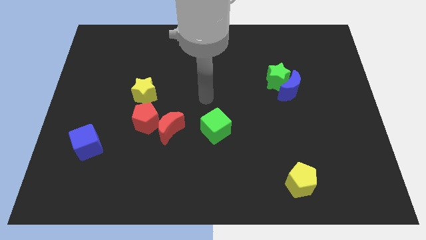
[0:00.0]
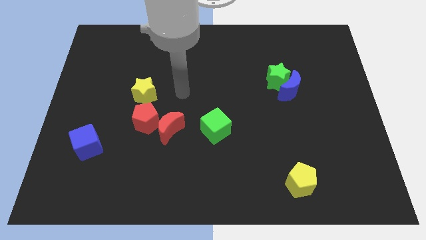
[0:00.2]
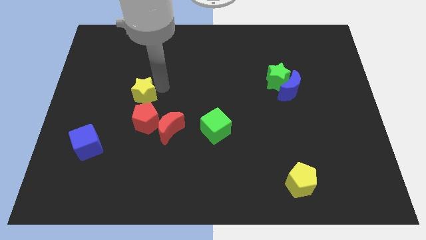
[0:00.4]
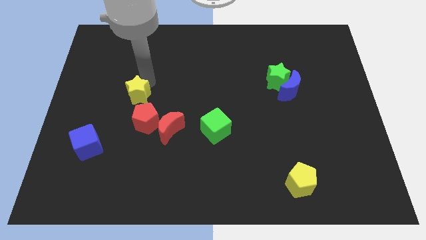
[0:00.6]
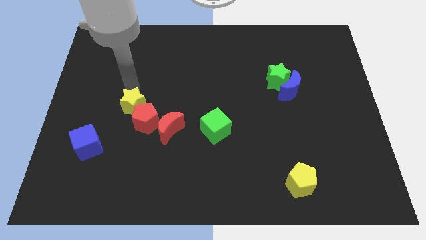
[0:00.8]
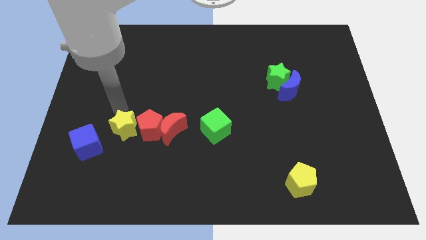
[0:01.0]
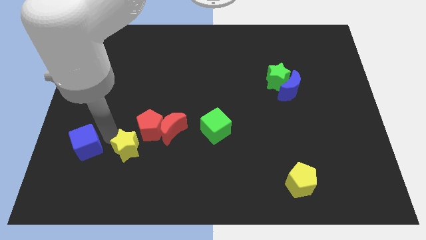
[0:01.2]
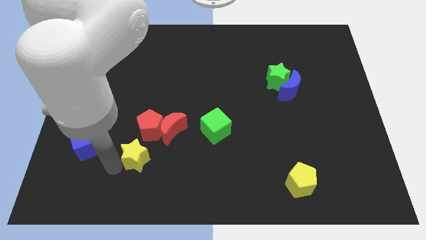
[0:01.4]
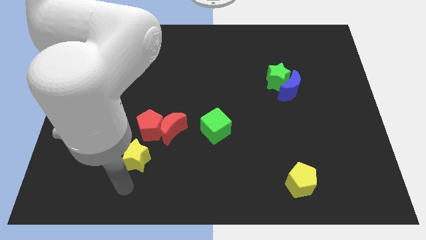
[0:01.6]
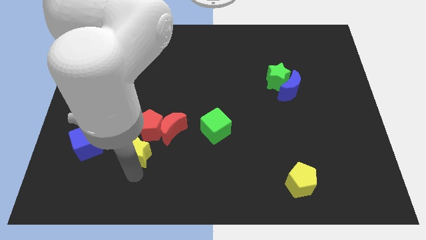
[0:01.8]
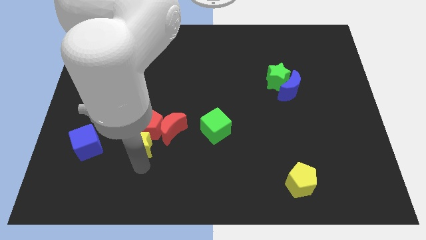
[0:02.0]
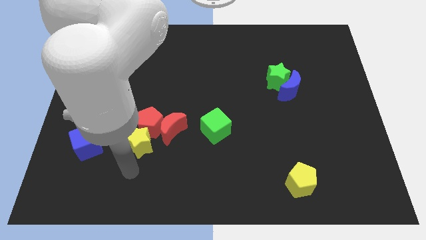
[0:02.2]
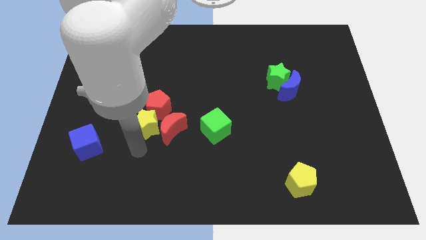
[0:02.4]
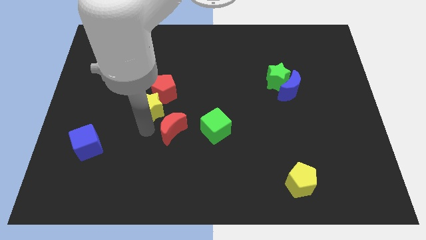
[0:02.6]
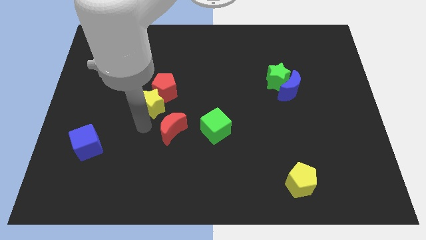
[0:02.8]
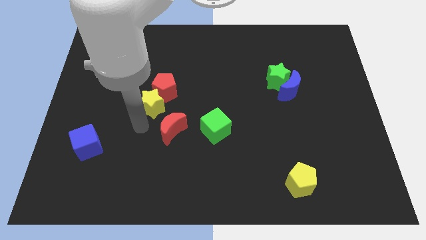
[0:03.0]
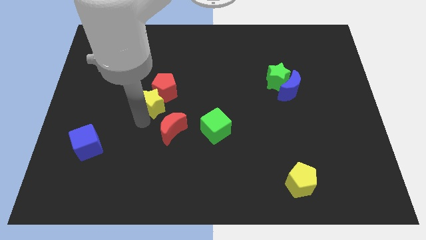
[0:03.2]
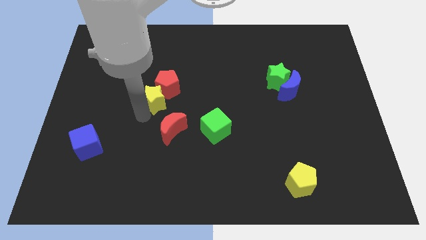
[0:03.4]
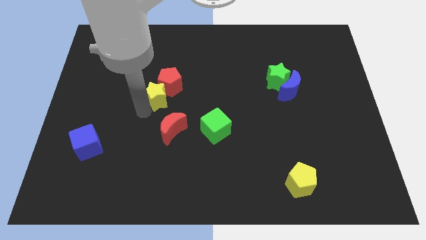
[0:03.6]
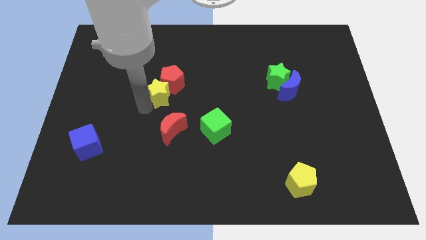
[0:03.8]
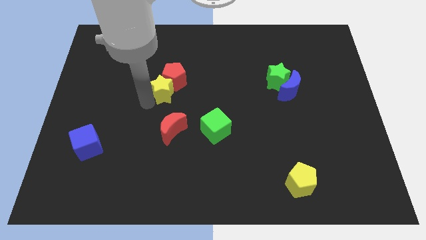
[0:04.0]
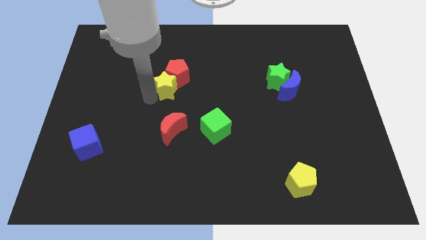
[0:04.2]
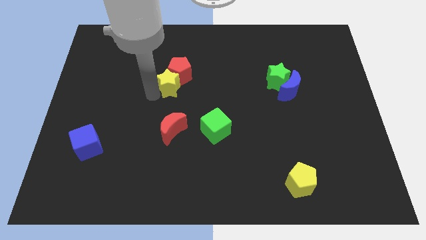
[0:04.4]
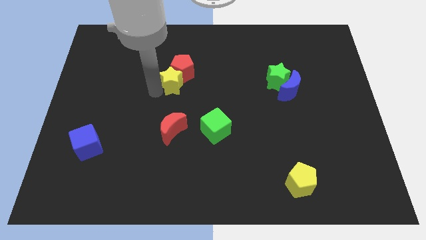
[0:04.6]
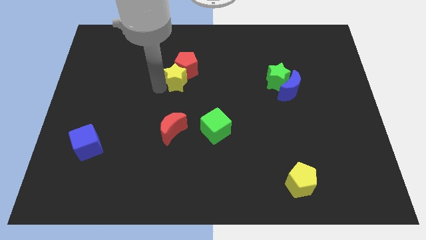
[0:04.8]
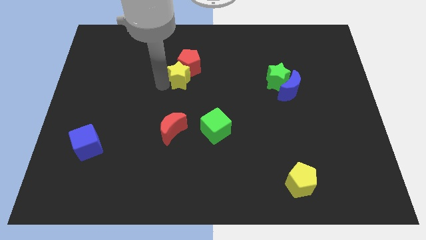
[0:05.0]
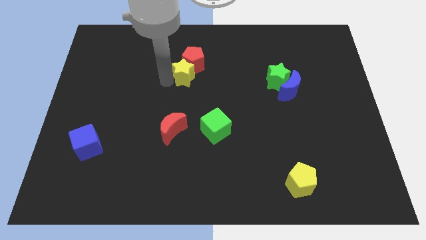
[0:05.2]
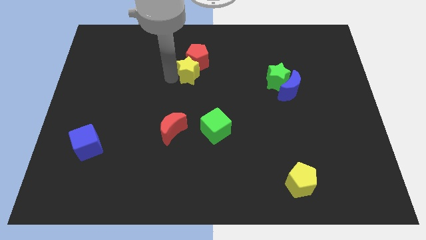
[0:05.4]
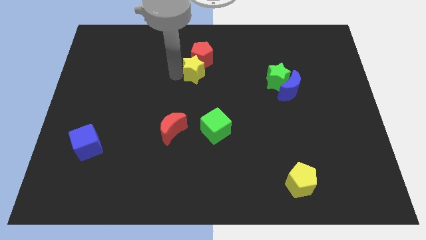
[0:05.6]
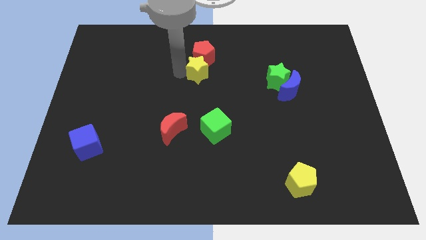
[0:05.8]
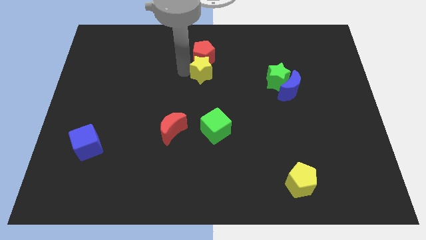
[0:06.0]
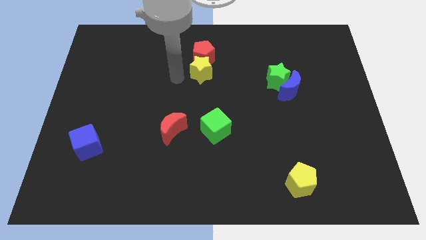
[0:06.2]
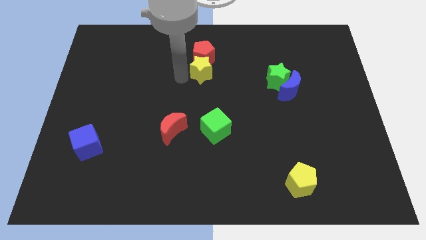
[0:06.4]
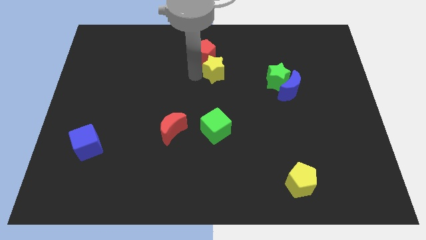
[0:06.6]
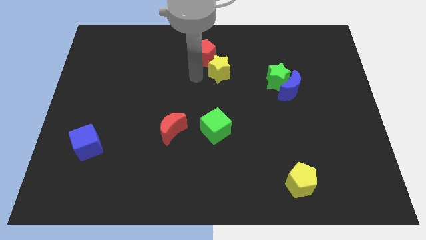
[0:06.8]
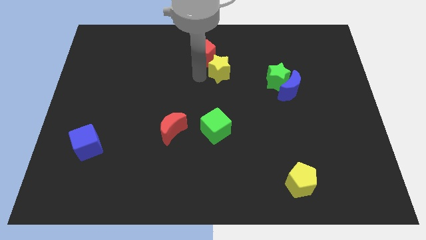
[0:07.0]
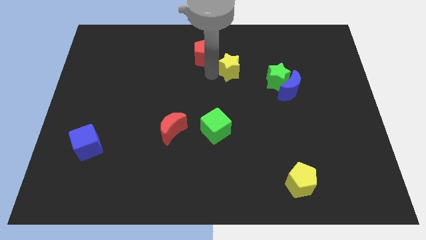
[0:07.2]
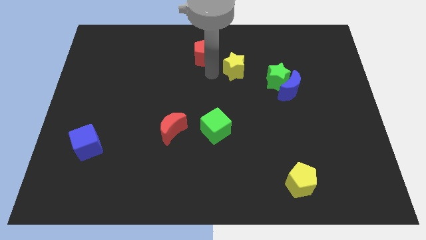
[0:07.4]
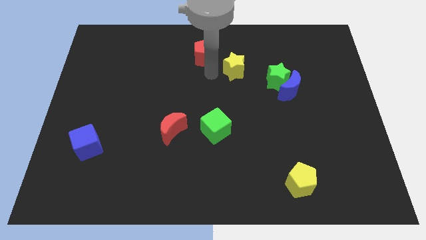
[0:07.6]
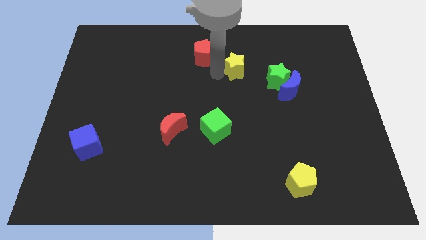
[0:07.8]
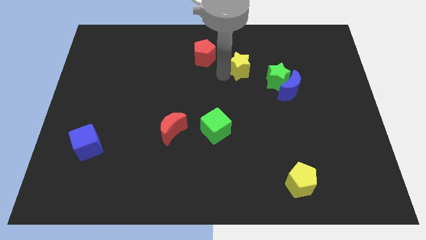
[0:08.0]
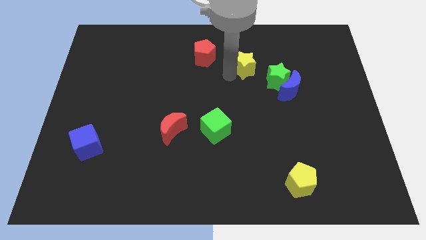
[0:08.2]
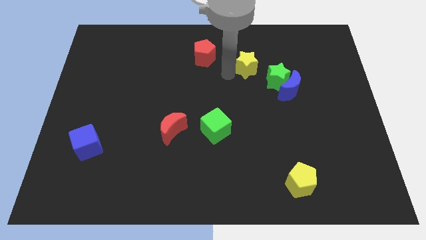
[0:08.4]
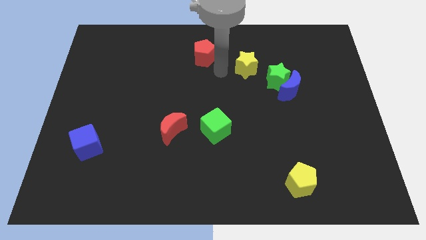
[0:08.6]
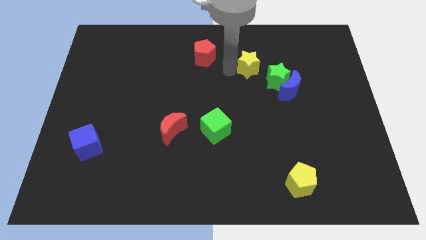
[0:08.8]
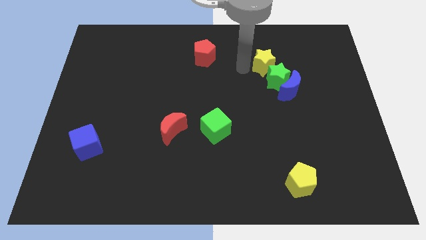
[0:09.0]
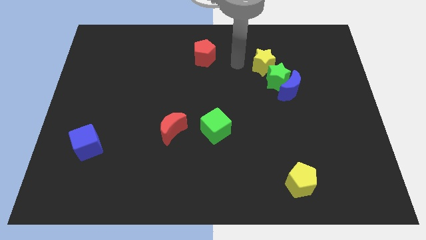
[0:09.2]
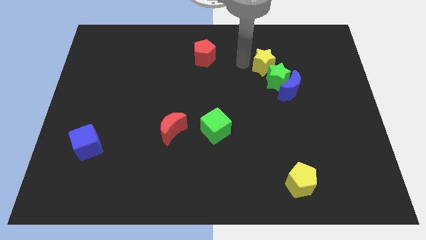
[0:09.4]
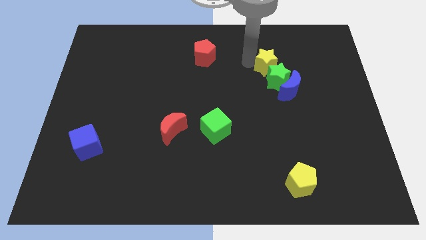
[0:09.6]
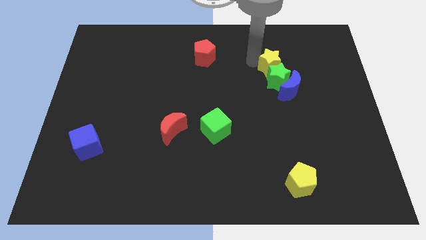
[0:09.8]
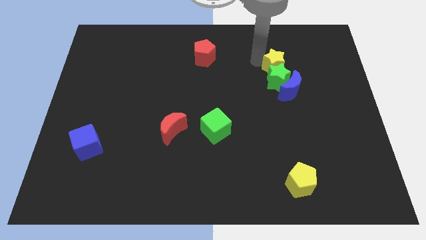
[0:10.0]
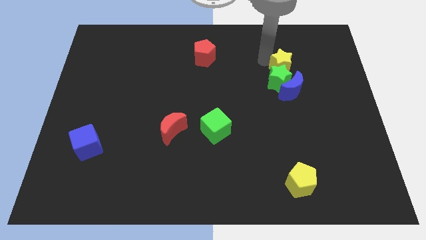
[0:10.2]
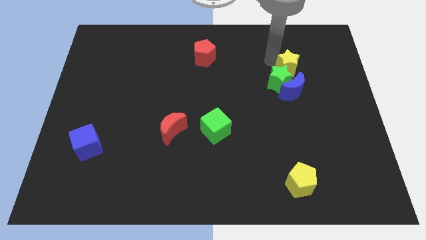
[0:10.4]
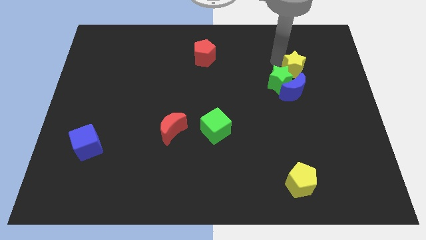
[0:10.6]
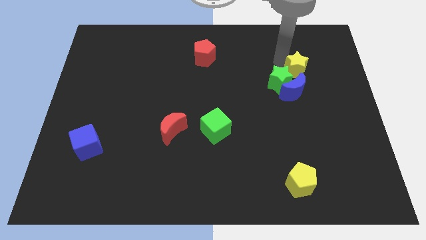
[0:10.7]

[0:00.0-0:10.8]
put the yellow star diagonally up and to the right of the blue moon

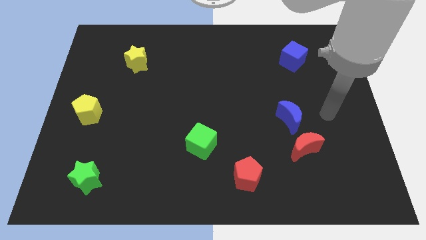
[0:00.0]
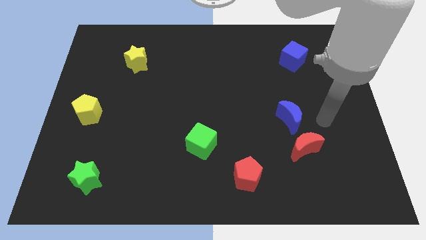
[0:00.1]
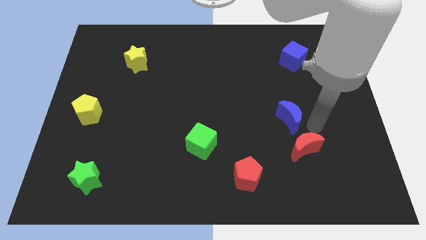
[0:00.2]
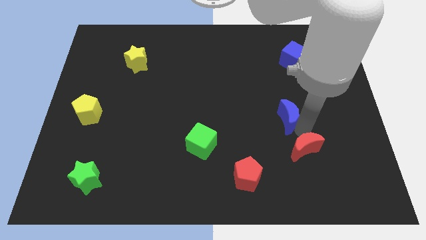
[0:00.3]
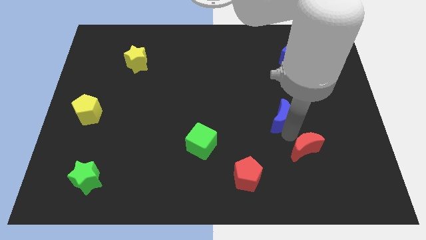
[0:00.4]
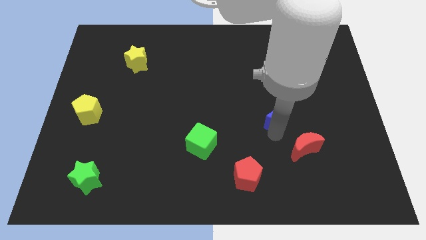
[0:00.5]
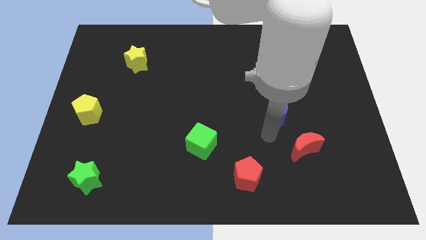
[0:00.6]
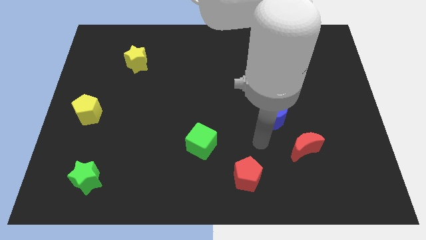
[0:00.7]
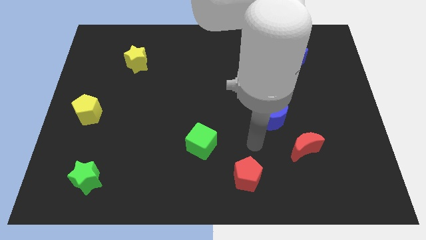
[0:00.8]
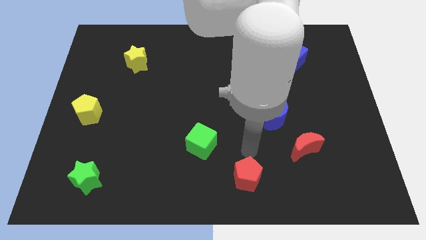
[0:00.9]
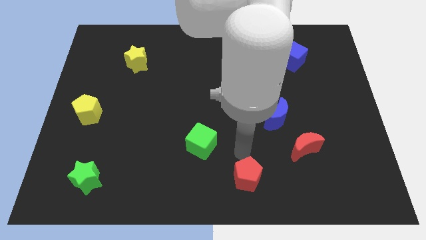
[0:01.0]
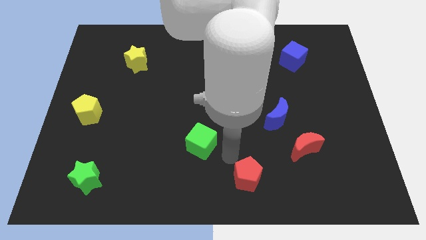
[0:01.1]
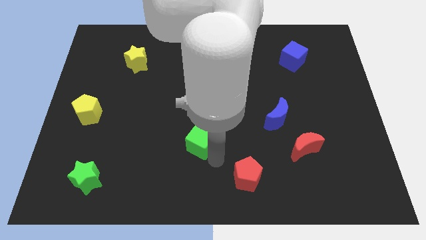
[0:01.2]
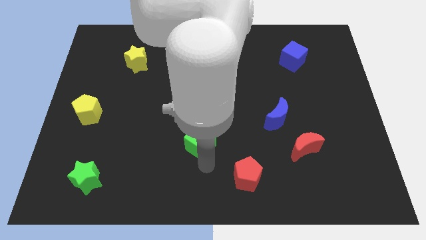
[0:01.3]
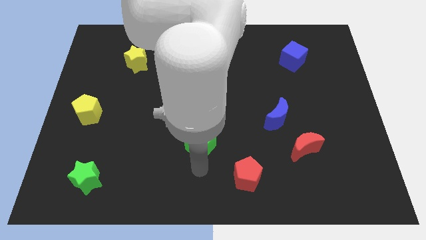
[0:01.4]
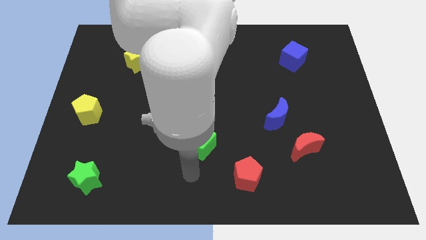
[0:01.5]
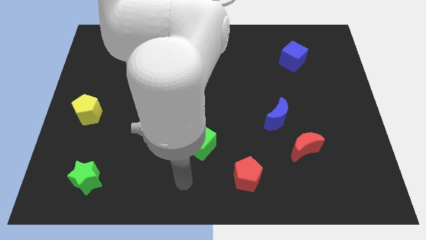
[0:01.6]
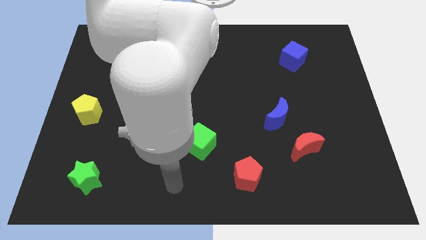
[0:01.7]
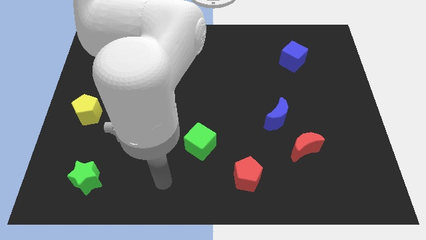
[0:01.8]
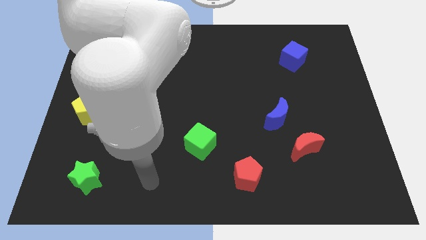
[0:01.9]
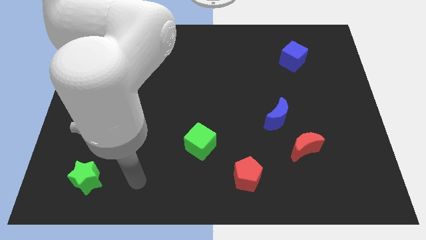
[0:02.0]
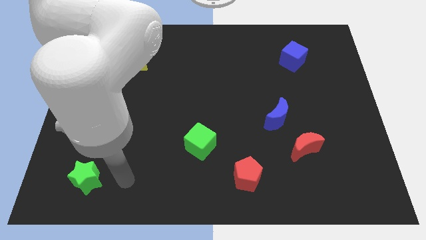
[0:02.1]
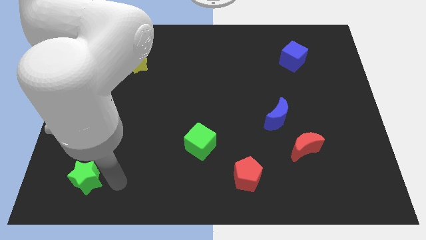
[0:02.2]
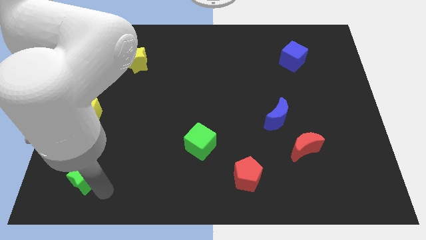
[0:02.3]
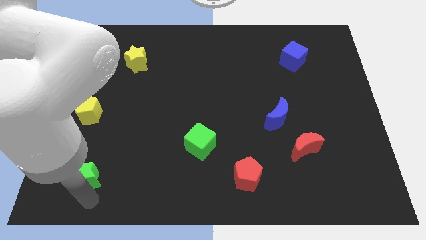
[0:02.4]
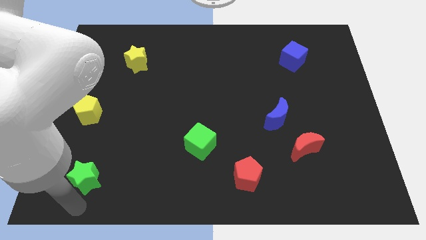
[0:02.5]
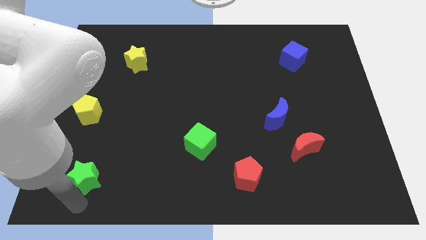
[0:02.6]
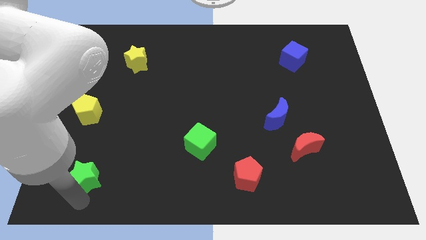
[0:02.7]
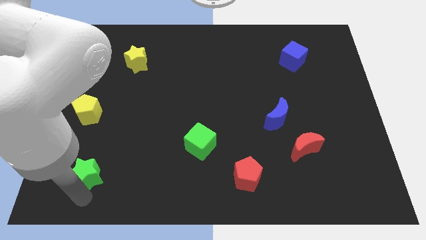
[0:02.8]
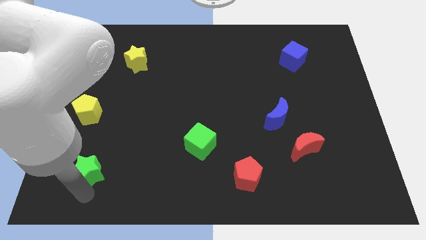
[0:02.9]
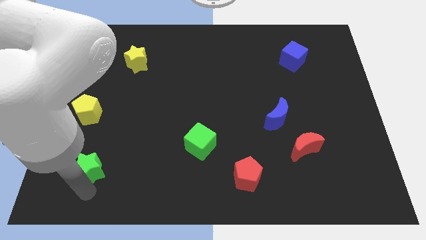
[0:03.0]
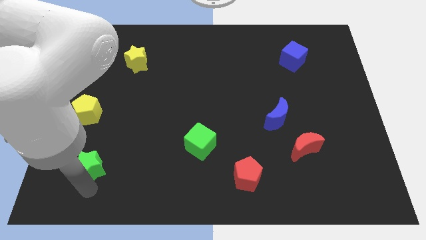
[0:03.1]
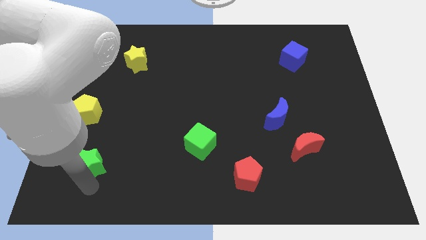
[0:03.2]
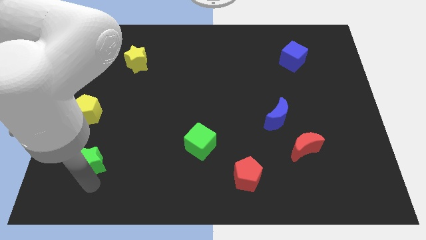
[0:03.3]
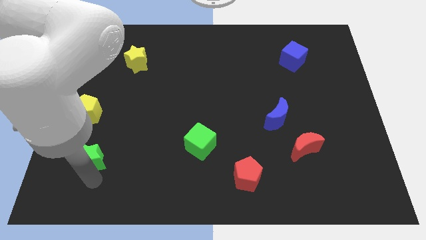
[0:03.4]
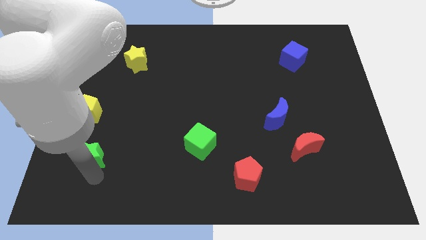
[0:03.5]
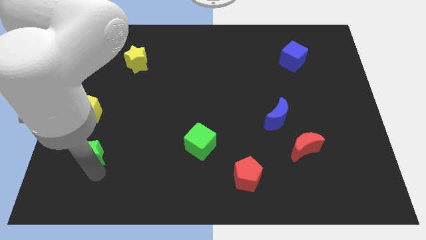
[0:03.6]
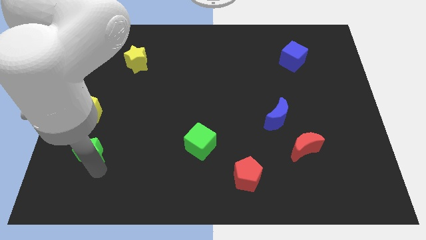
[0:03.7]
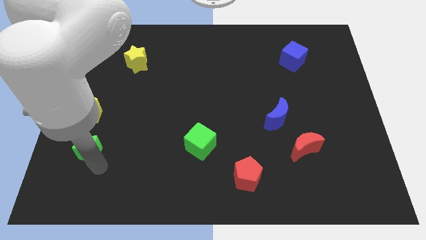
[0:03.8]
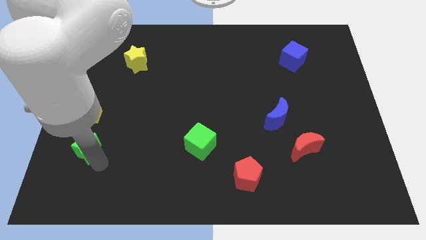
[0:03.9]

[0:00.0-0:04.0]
put the green star to the bottom right side of the yellow pentagon
